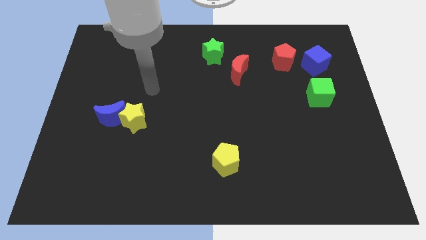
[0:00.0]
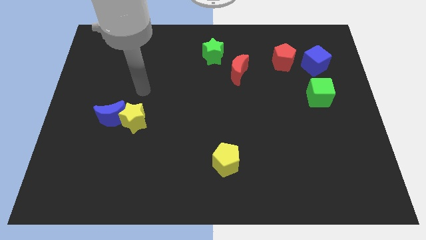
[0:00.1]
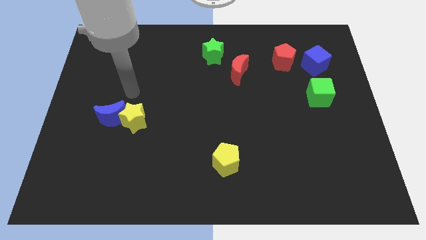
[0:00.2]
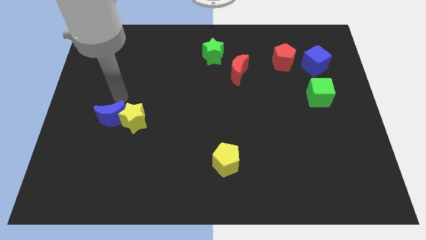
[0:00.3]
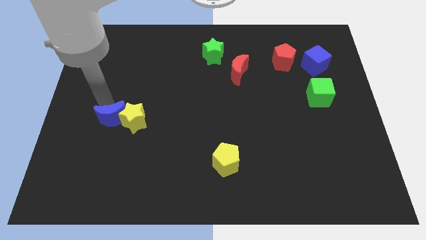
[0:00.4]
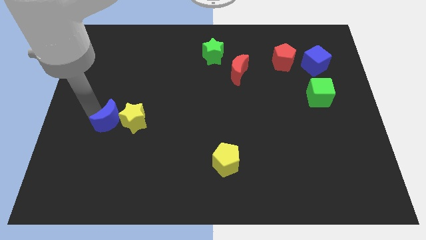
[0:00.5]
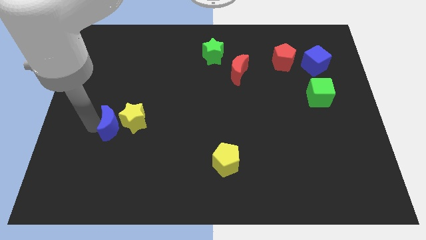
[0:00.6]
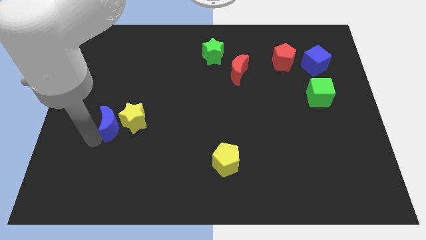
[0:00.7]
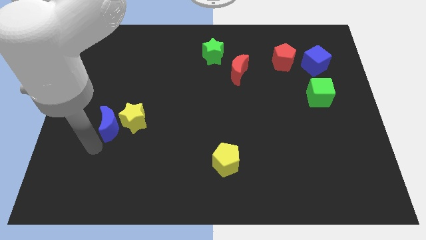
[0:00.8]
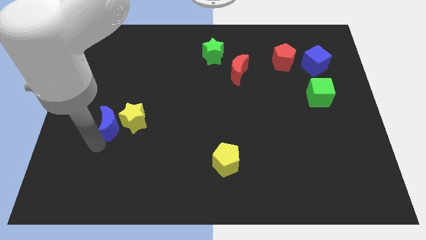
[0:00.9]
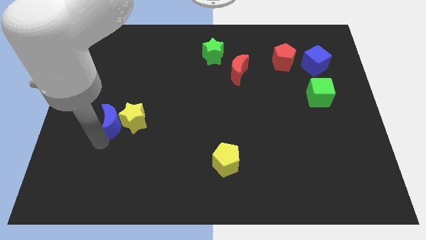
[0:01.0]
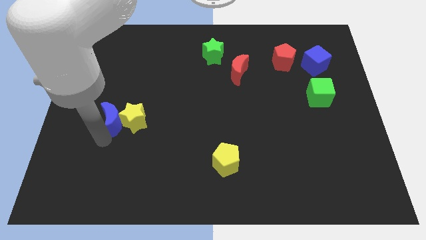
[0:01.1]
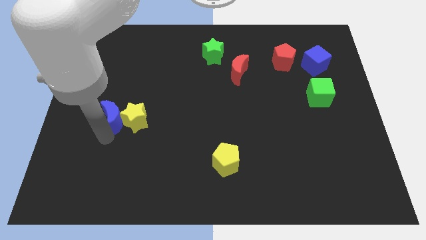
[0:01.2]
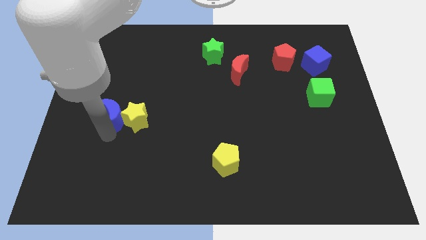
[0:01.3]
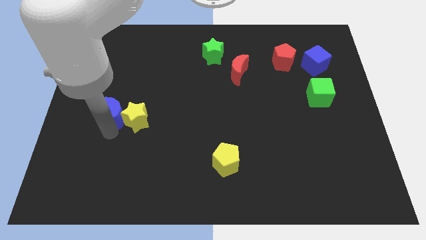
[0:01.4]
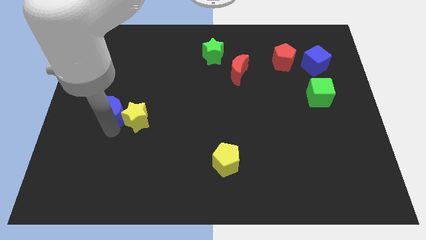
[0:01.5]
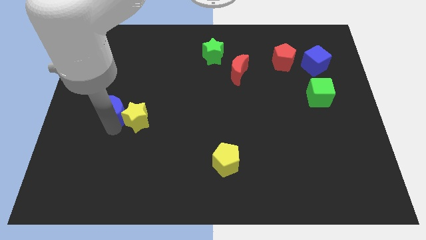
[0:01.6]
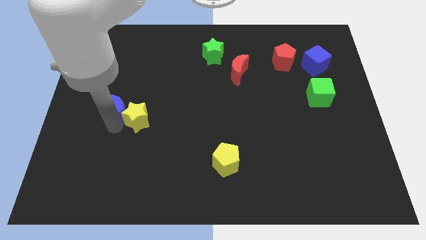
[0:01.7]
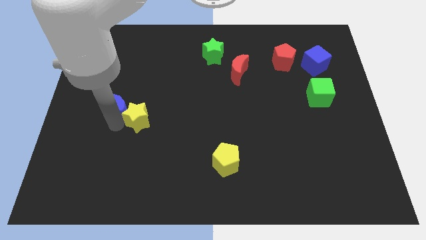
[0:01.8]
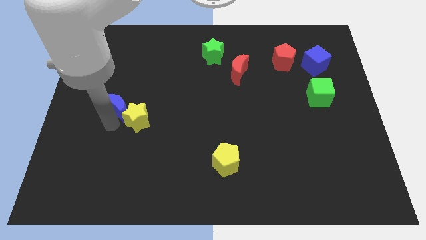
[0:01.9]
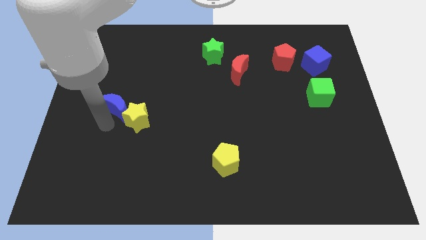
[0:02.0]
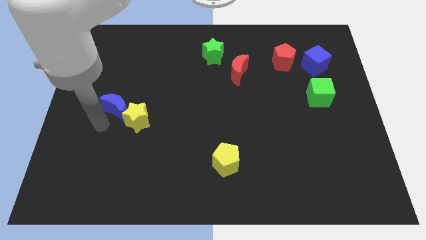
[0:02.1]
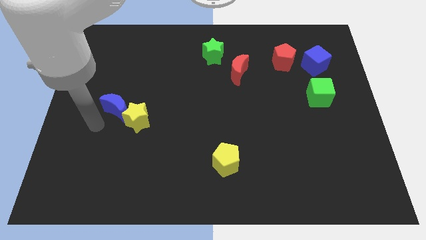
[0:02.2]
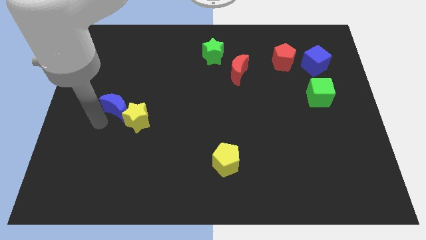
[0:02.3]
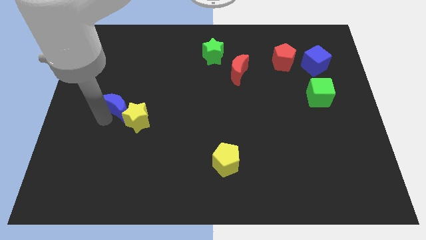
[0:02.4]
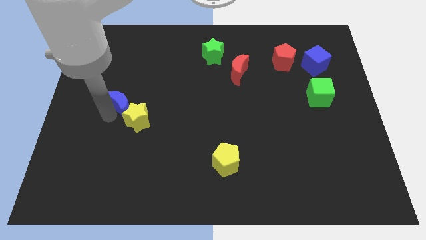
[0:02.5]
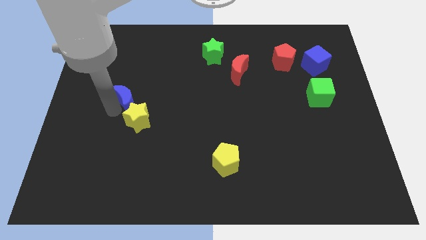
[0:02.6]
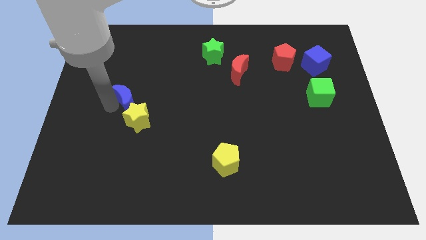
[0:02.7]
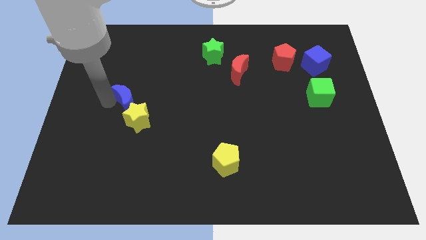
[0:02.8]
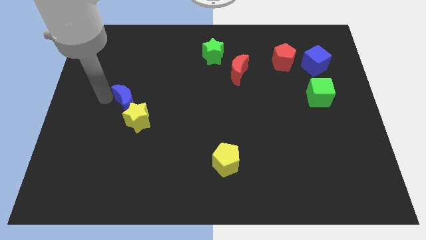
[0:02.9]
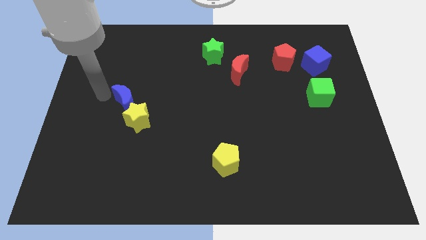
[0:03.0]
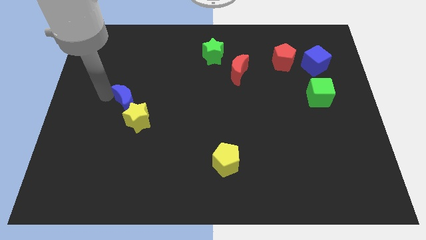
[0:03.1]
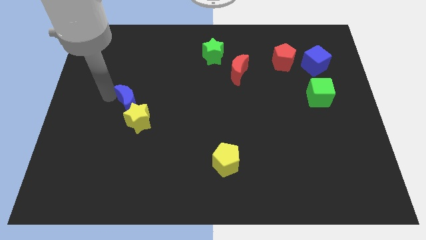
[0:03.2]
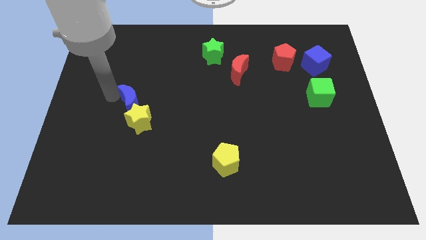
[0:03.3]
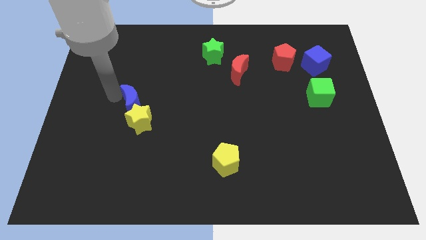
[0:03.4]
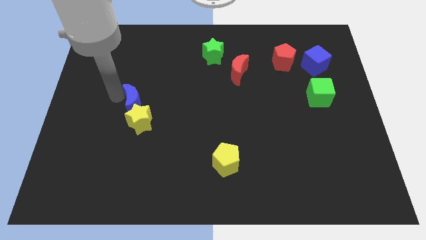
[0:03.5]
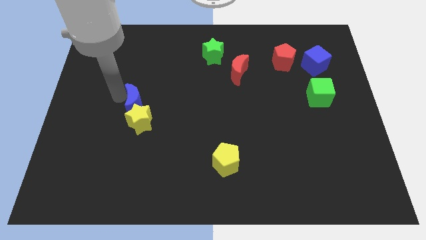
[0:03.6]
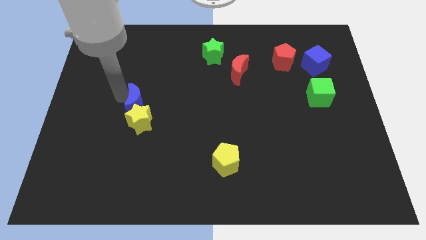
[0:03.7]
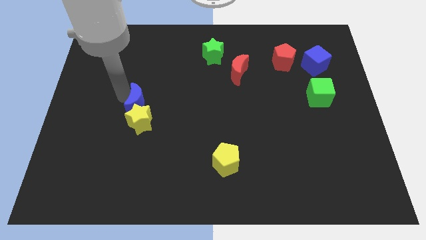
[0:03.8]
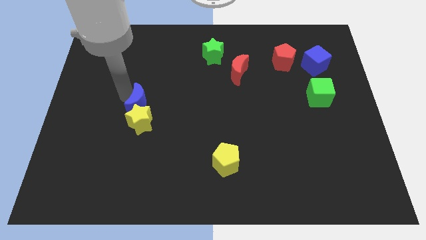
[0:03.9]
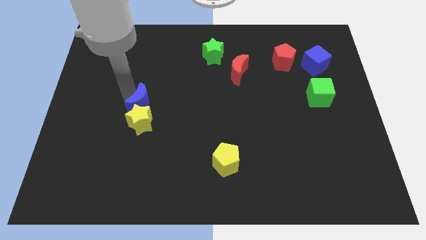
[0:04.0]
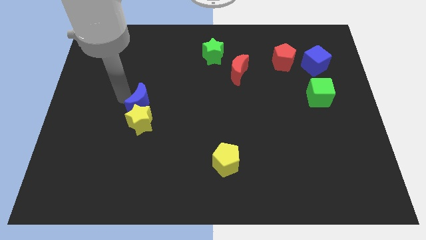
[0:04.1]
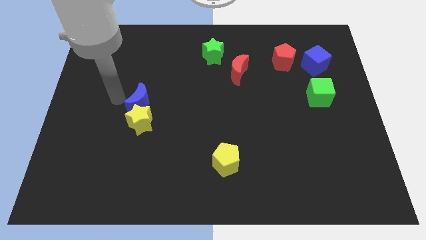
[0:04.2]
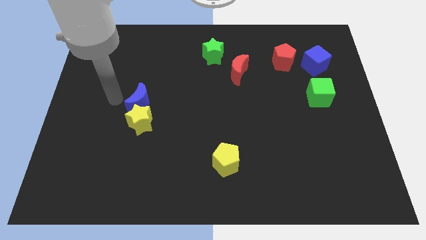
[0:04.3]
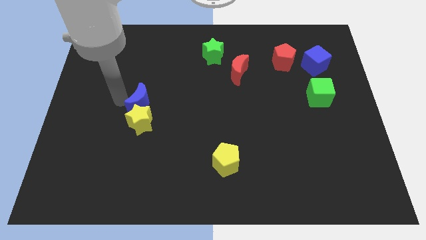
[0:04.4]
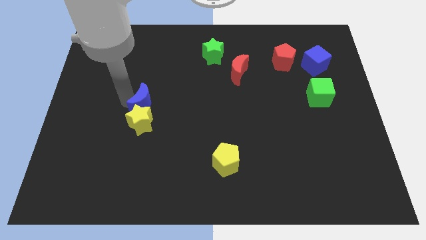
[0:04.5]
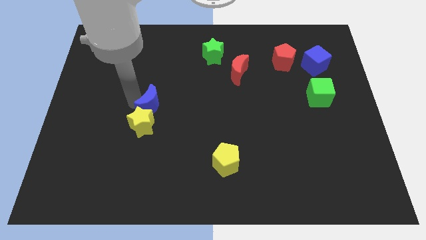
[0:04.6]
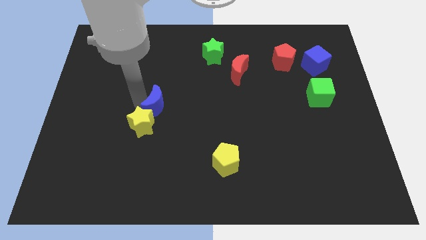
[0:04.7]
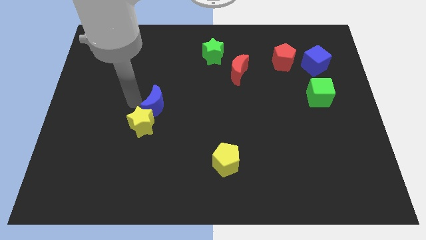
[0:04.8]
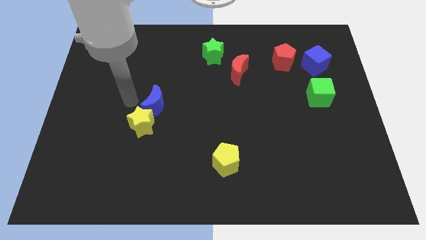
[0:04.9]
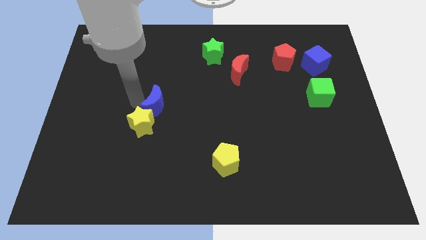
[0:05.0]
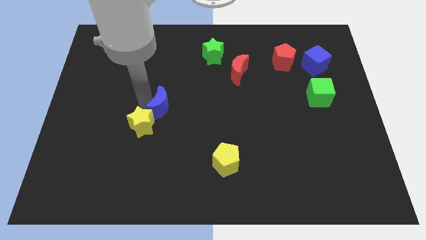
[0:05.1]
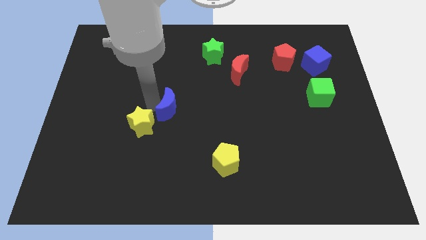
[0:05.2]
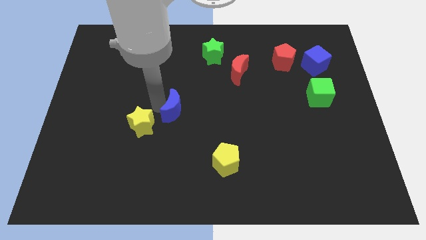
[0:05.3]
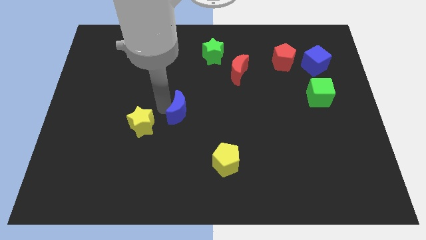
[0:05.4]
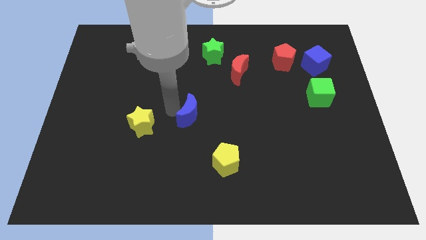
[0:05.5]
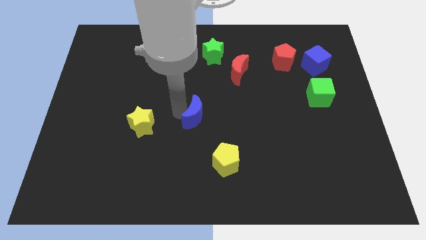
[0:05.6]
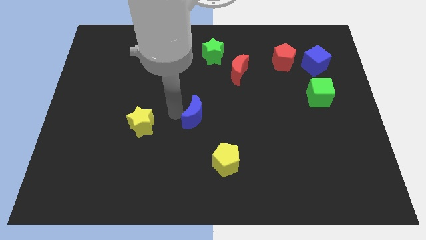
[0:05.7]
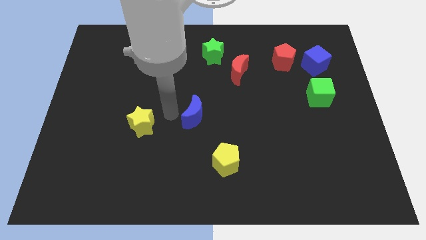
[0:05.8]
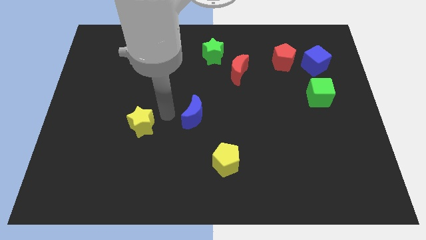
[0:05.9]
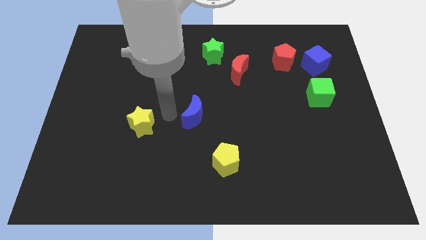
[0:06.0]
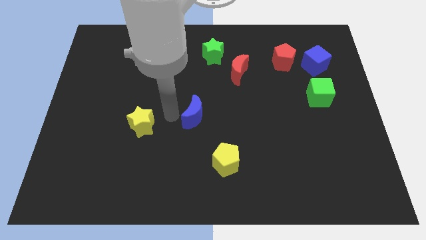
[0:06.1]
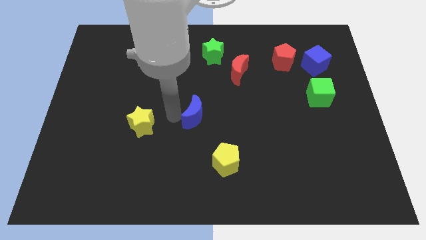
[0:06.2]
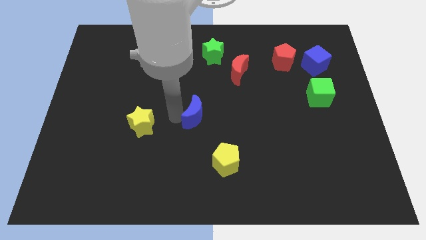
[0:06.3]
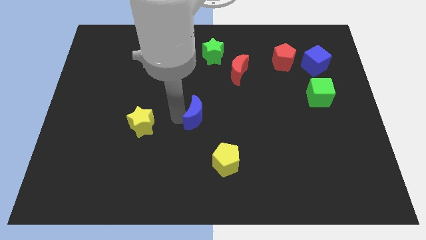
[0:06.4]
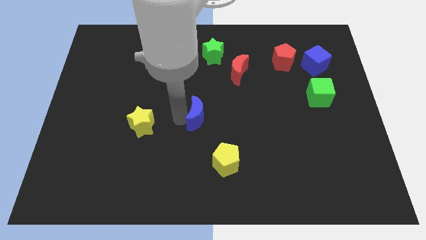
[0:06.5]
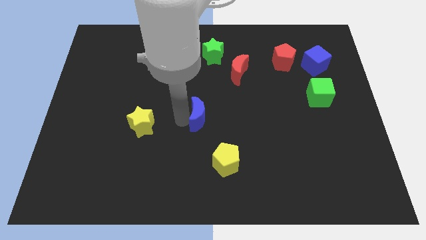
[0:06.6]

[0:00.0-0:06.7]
push the blue moon to the right

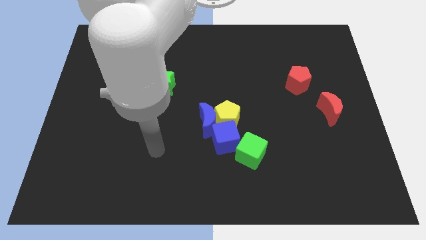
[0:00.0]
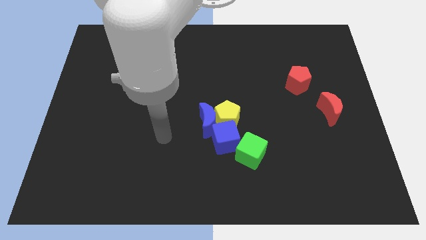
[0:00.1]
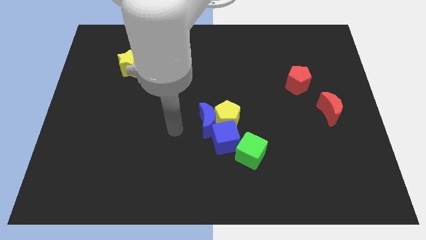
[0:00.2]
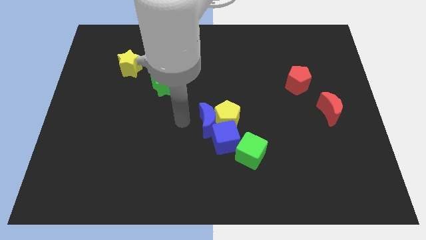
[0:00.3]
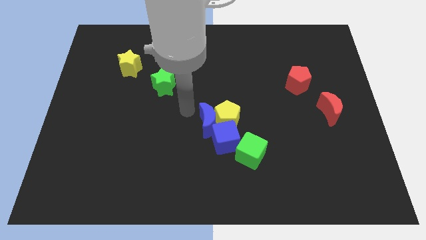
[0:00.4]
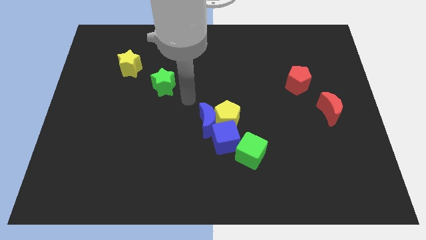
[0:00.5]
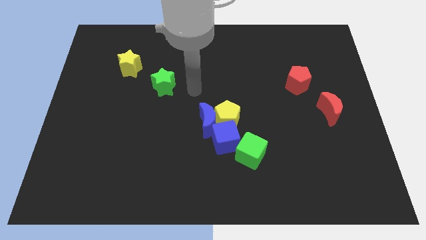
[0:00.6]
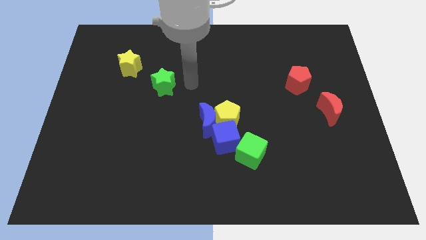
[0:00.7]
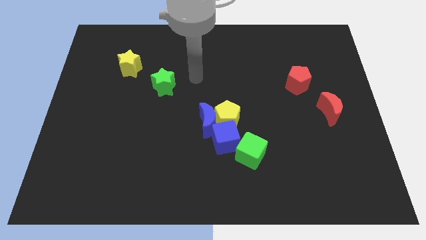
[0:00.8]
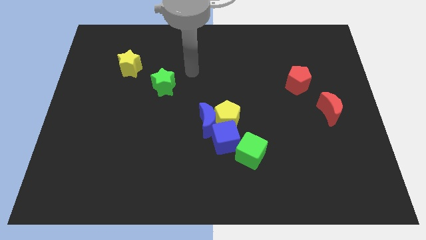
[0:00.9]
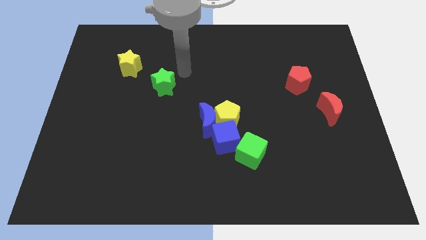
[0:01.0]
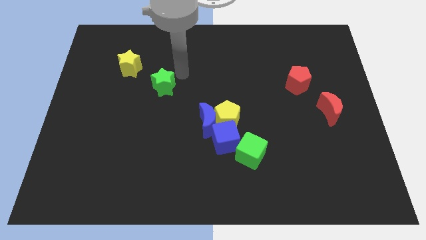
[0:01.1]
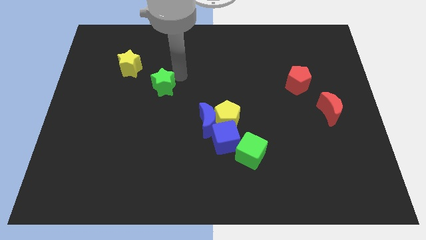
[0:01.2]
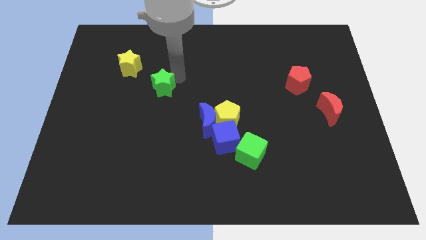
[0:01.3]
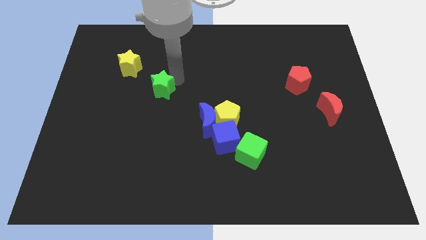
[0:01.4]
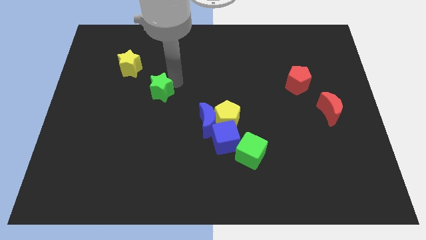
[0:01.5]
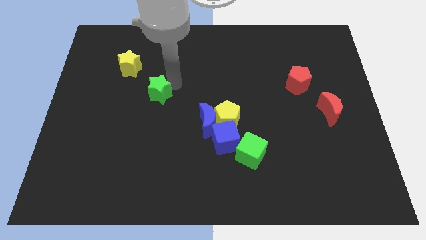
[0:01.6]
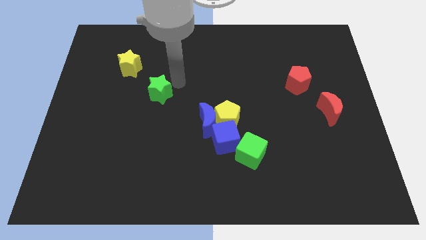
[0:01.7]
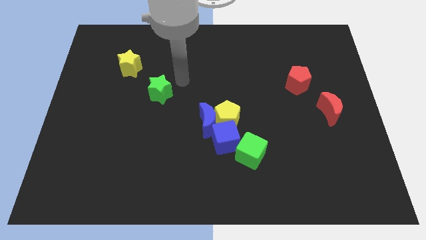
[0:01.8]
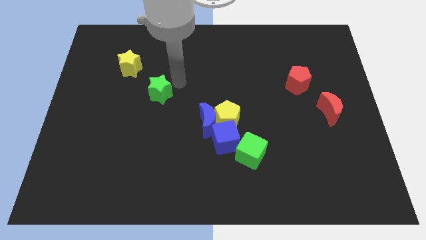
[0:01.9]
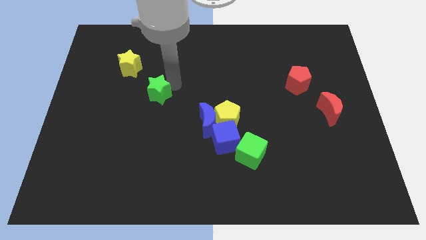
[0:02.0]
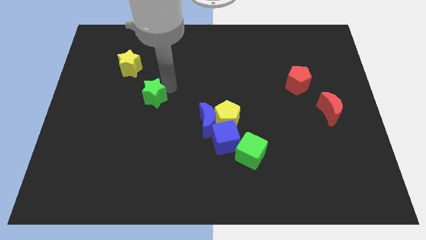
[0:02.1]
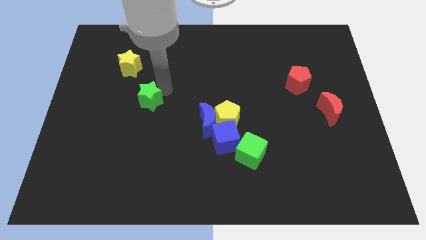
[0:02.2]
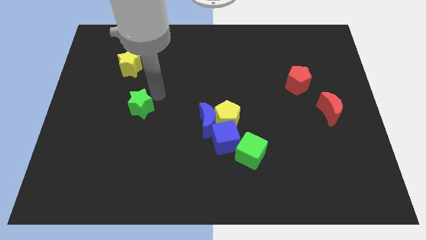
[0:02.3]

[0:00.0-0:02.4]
slide the green star a little downwards and left diagonally
